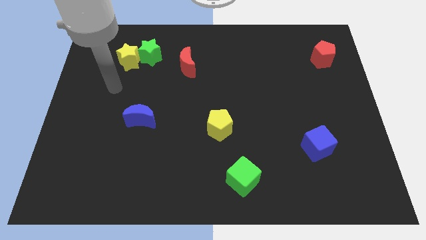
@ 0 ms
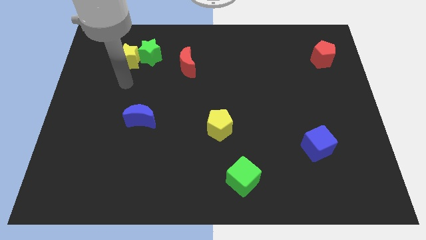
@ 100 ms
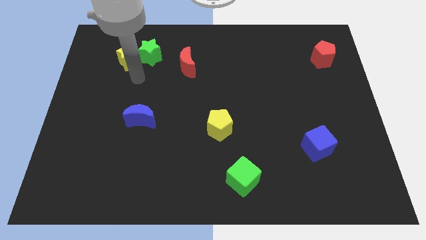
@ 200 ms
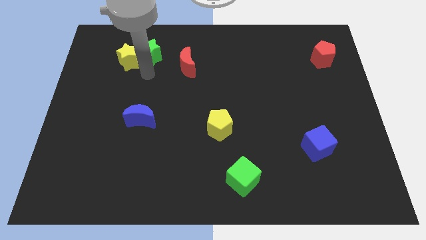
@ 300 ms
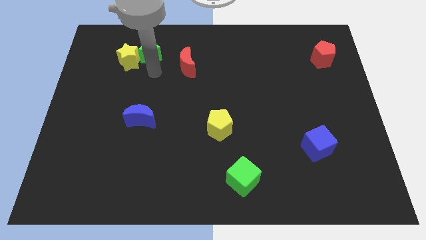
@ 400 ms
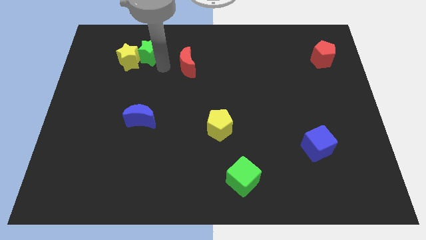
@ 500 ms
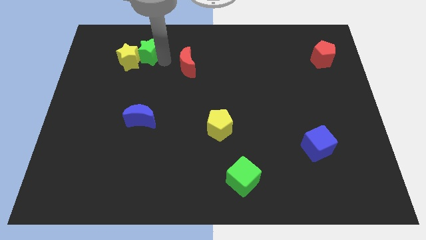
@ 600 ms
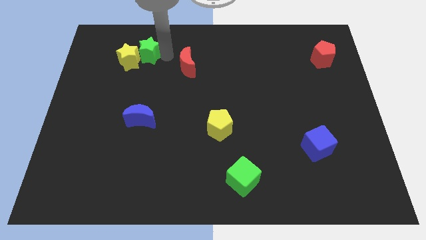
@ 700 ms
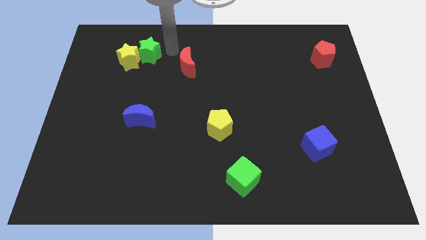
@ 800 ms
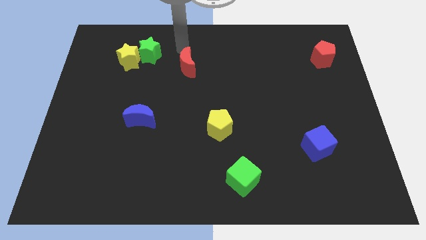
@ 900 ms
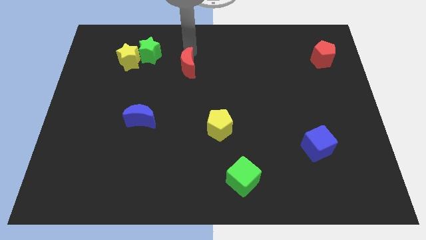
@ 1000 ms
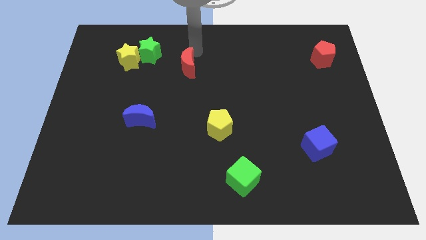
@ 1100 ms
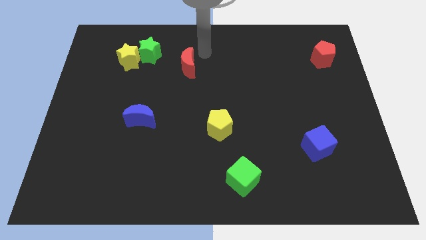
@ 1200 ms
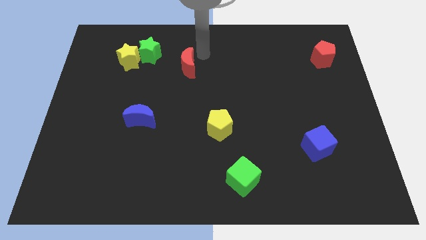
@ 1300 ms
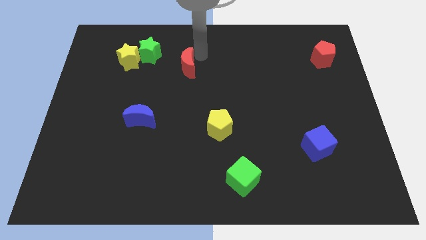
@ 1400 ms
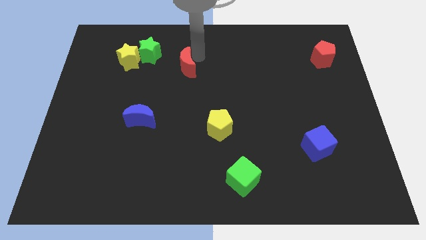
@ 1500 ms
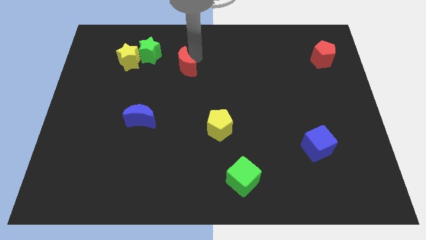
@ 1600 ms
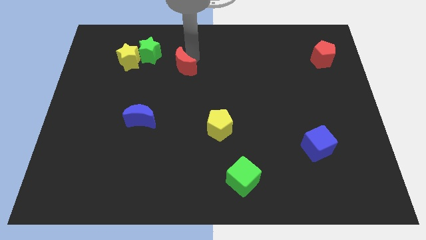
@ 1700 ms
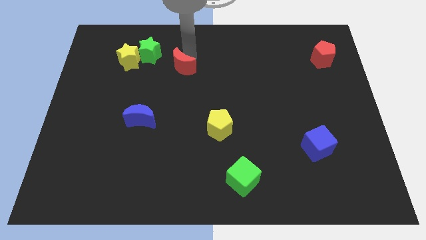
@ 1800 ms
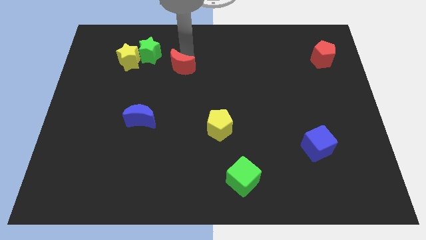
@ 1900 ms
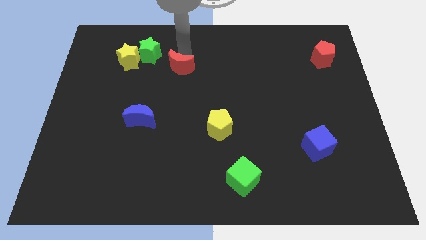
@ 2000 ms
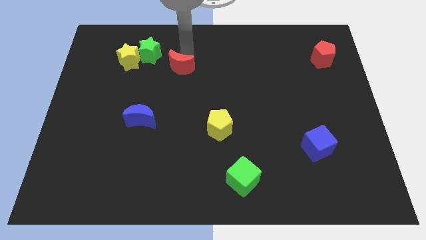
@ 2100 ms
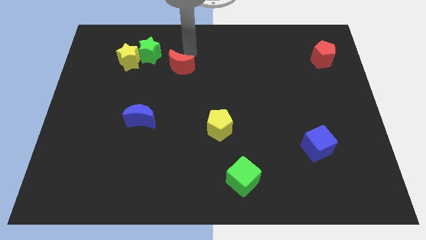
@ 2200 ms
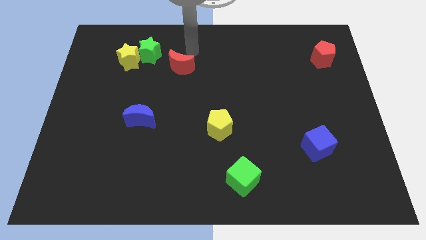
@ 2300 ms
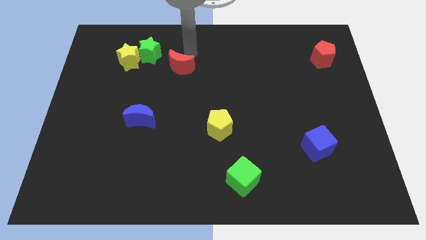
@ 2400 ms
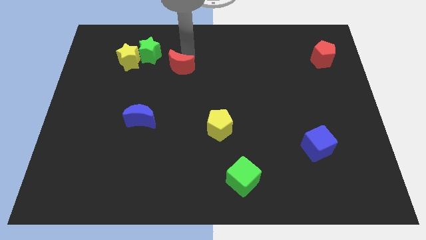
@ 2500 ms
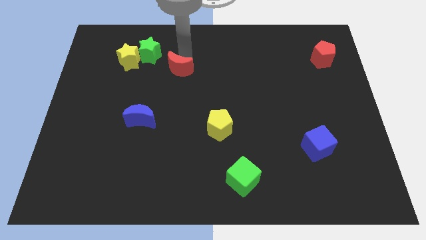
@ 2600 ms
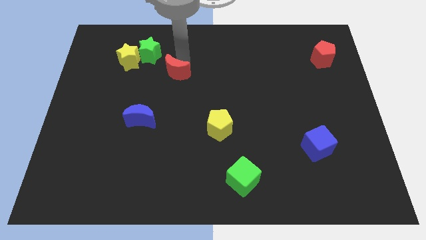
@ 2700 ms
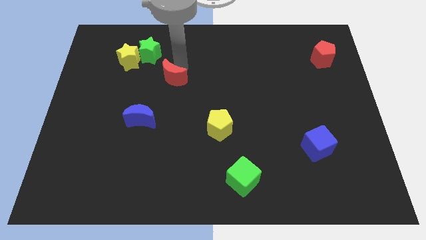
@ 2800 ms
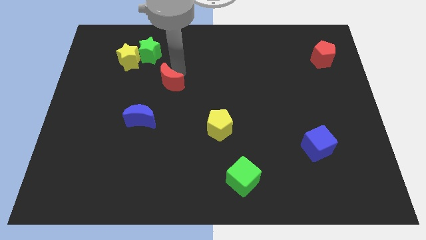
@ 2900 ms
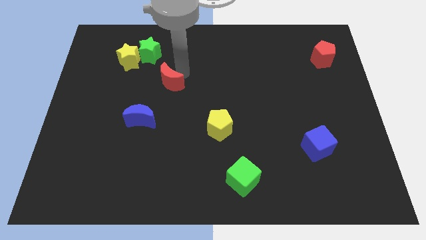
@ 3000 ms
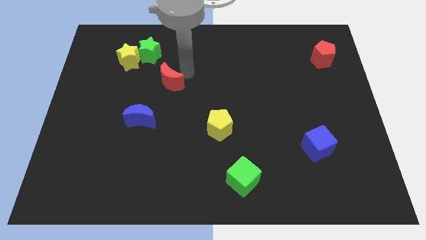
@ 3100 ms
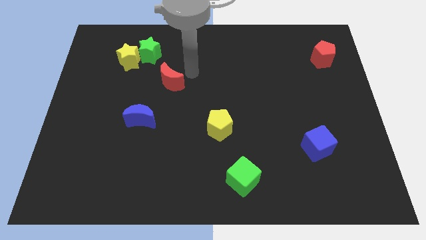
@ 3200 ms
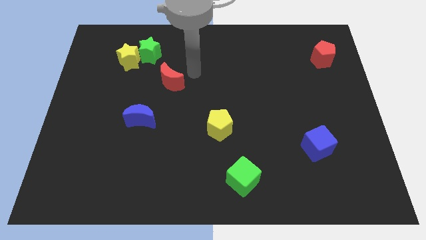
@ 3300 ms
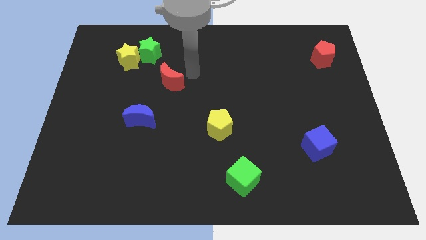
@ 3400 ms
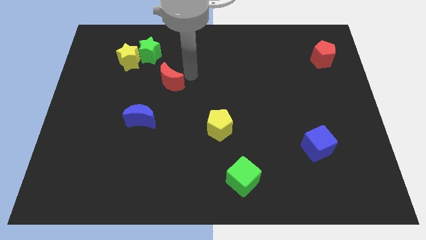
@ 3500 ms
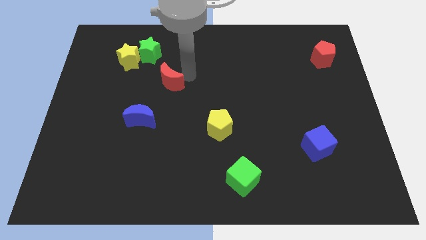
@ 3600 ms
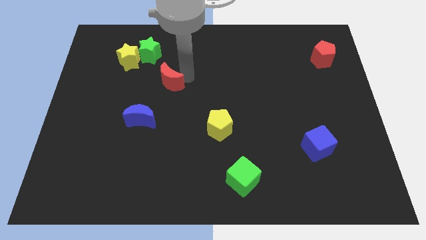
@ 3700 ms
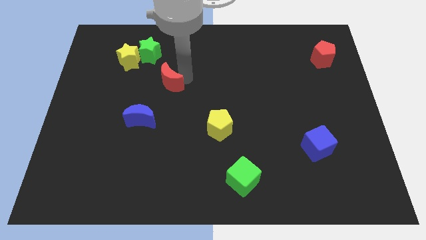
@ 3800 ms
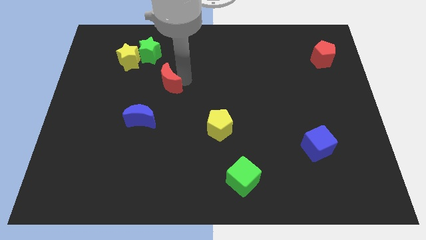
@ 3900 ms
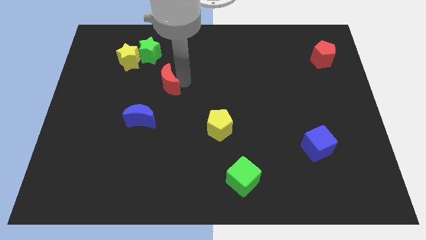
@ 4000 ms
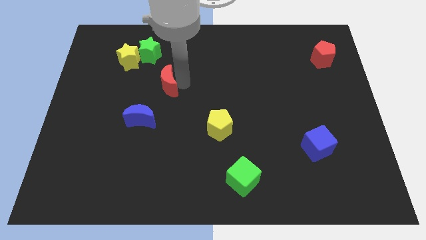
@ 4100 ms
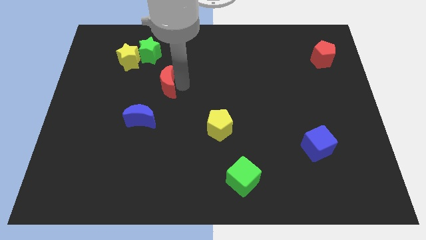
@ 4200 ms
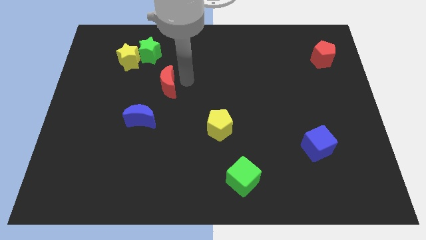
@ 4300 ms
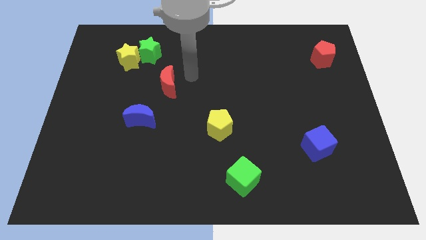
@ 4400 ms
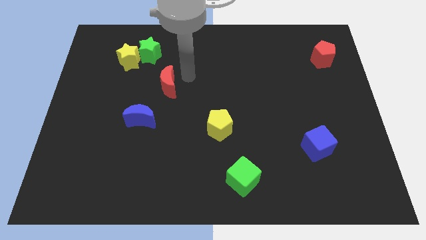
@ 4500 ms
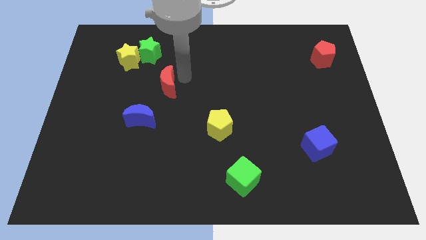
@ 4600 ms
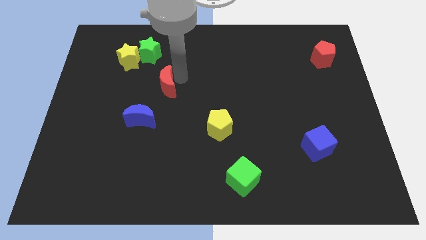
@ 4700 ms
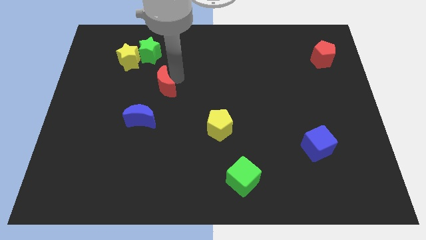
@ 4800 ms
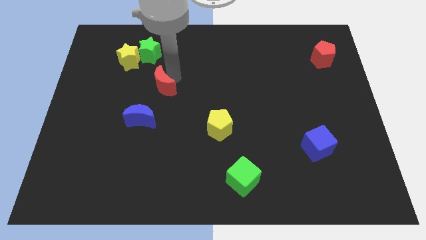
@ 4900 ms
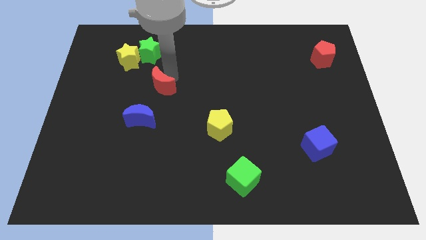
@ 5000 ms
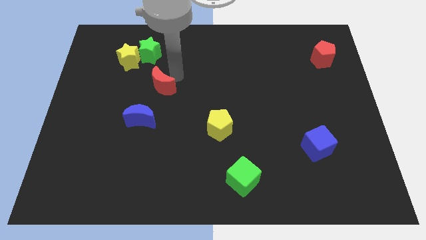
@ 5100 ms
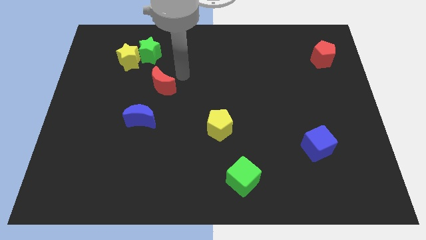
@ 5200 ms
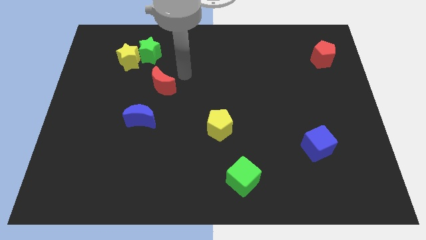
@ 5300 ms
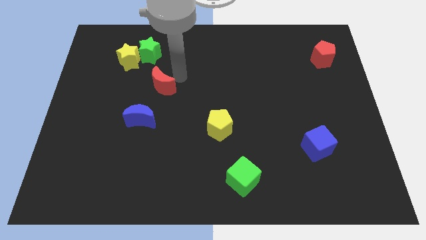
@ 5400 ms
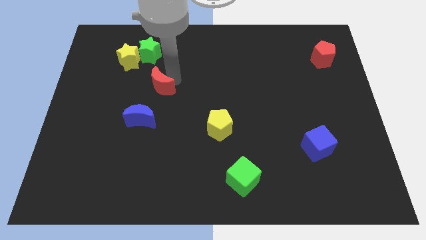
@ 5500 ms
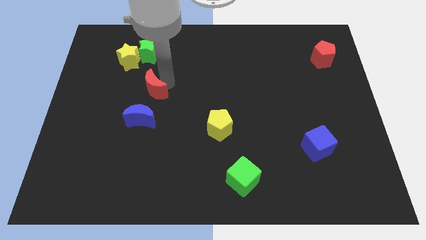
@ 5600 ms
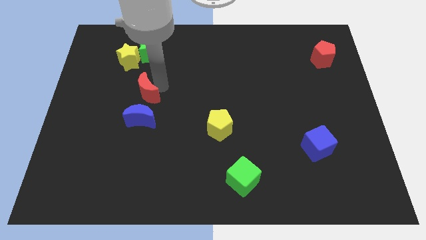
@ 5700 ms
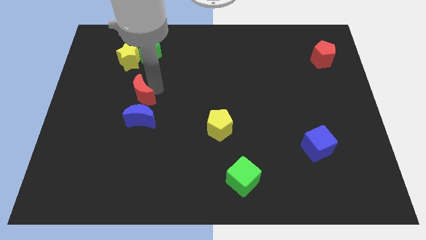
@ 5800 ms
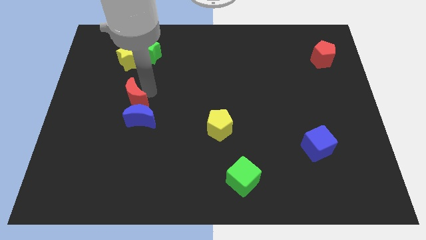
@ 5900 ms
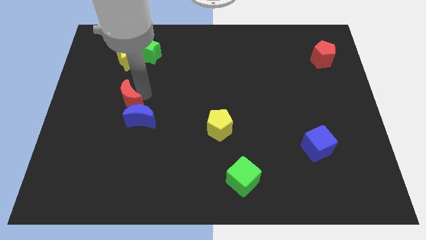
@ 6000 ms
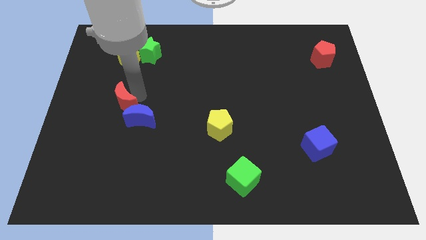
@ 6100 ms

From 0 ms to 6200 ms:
move the red moon left of the blue moon

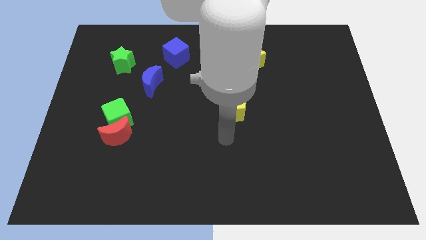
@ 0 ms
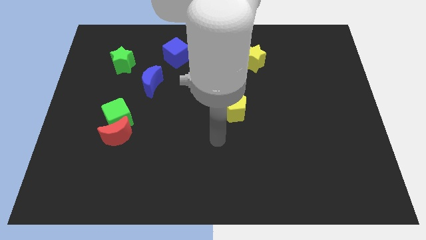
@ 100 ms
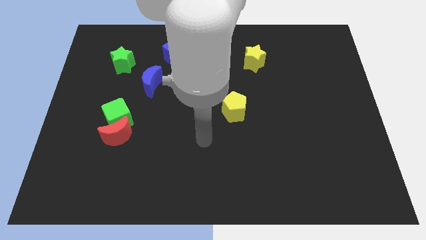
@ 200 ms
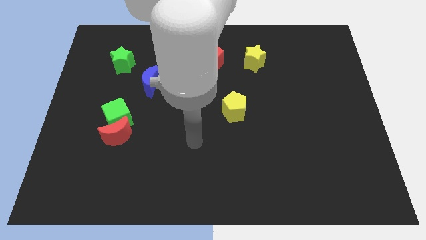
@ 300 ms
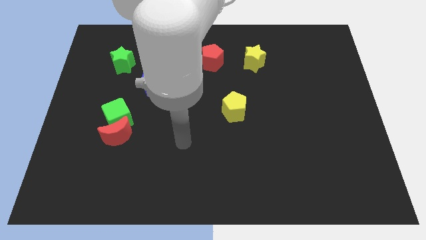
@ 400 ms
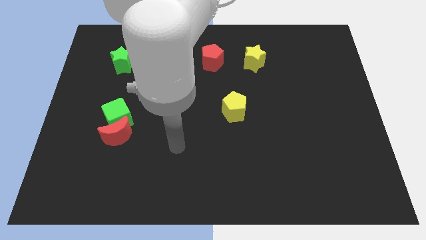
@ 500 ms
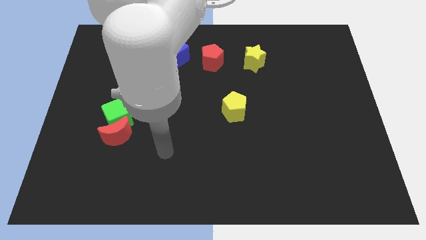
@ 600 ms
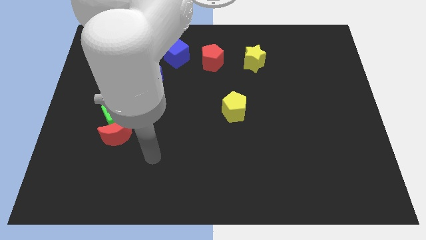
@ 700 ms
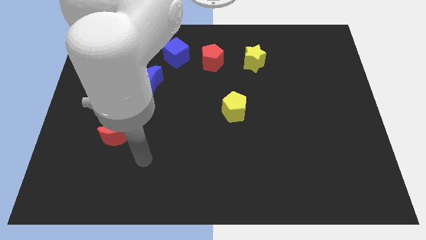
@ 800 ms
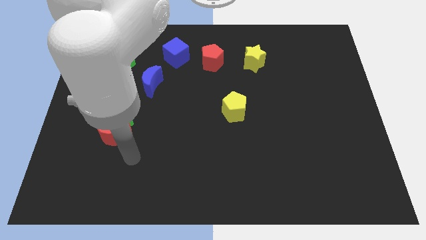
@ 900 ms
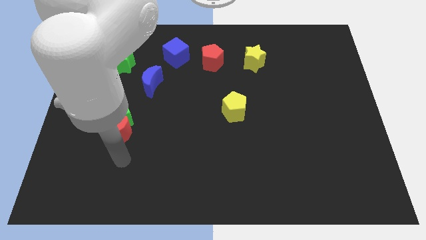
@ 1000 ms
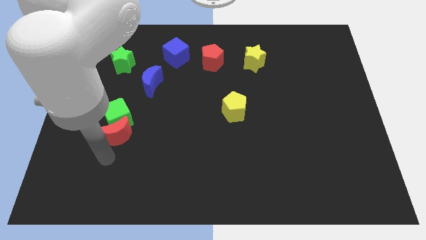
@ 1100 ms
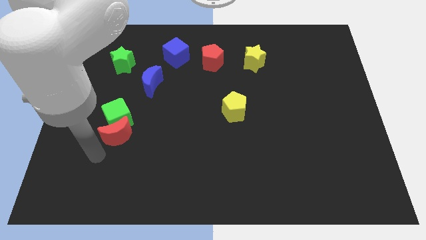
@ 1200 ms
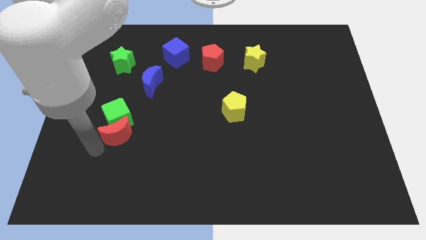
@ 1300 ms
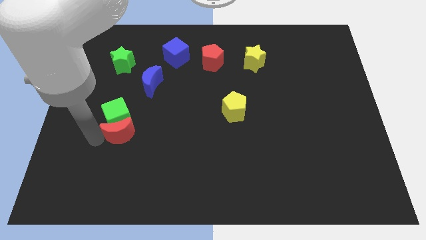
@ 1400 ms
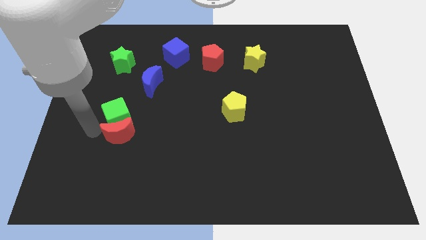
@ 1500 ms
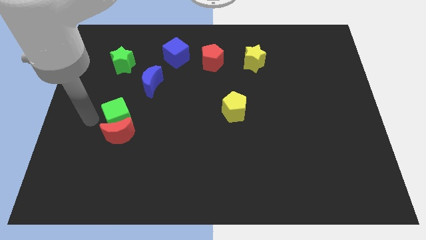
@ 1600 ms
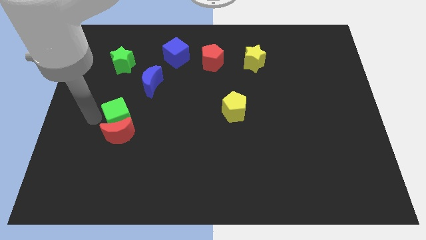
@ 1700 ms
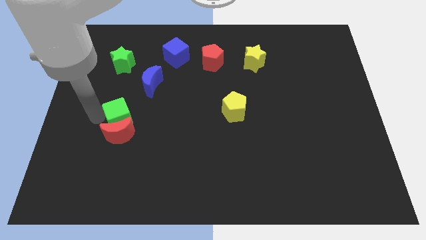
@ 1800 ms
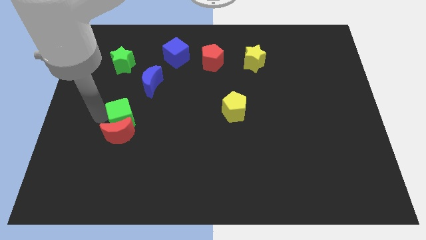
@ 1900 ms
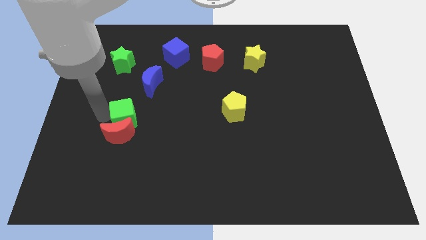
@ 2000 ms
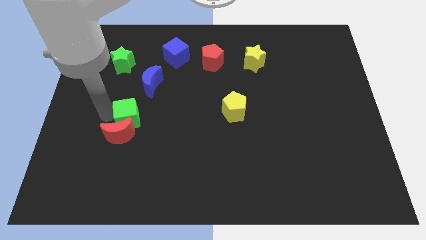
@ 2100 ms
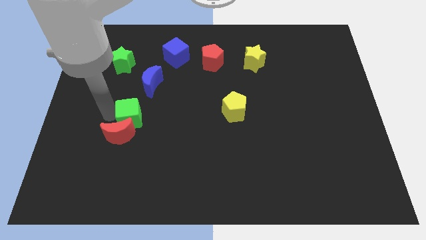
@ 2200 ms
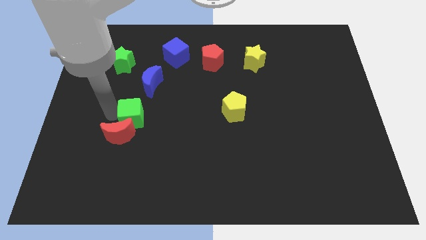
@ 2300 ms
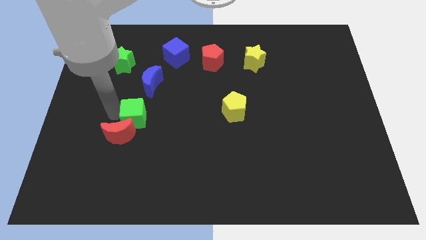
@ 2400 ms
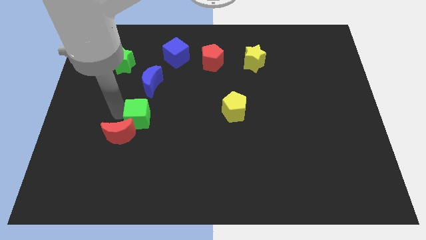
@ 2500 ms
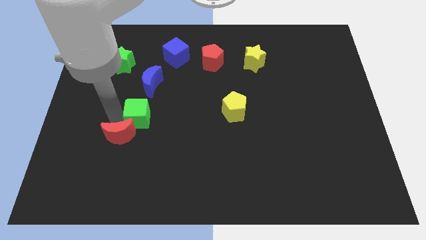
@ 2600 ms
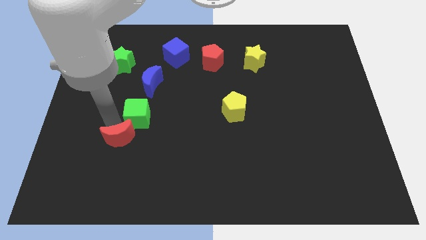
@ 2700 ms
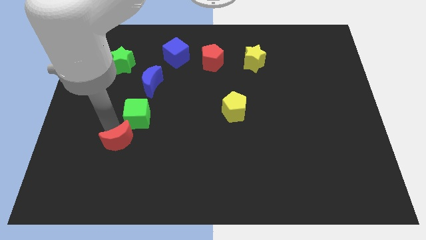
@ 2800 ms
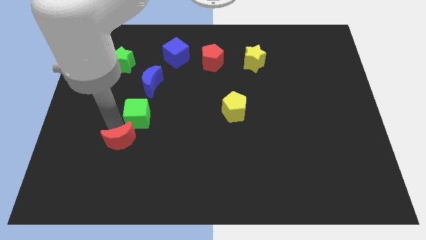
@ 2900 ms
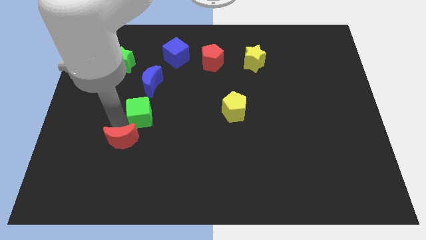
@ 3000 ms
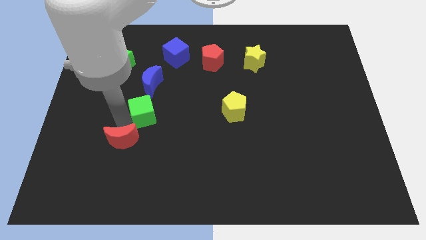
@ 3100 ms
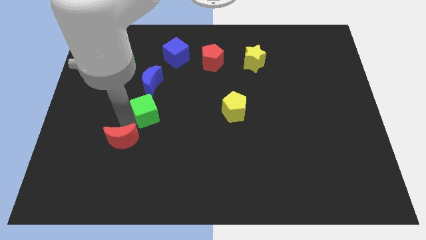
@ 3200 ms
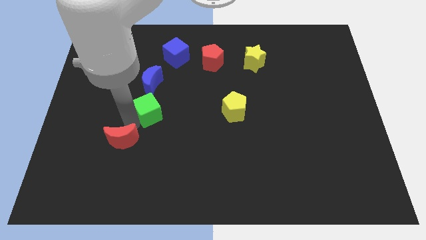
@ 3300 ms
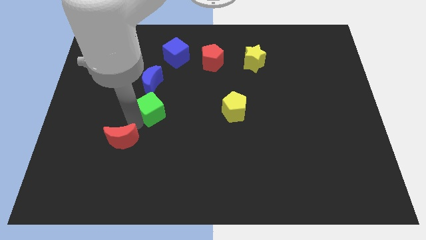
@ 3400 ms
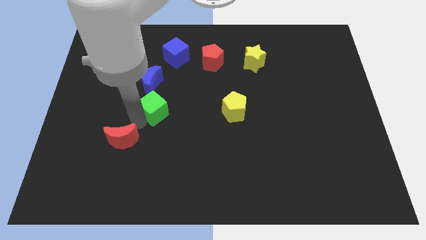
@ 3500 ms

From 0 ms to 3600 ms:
put the green cube diagonally down and to the right of the blue moon
